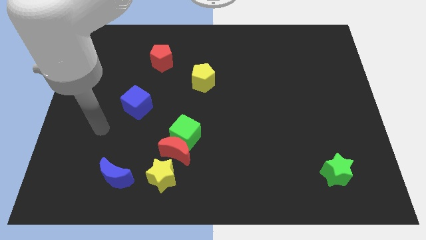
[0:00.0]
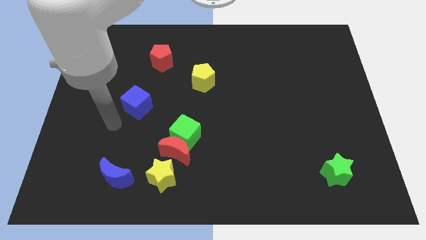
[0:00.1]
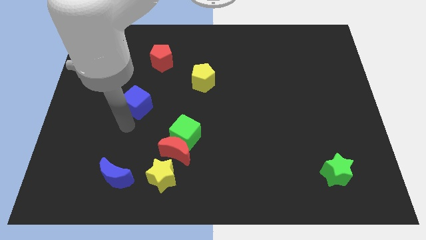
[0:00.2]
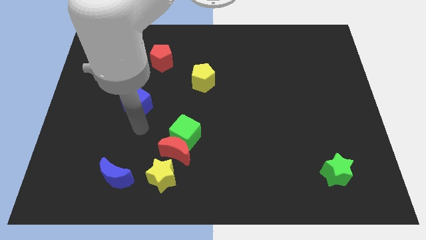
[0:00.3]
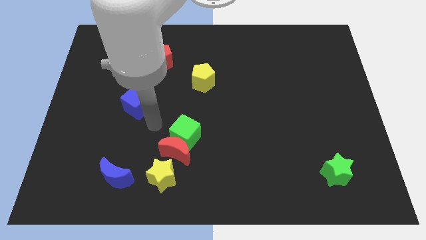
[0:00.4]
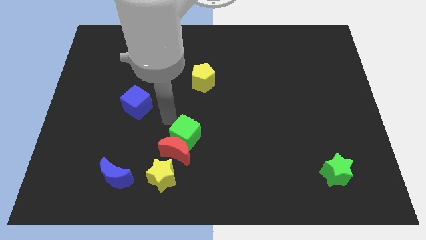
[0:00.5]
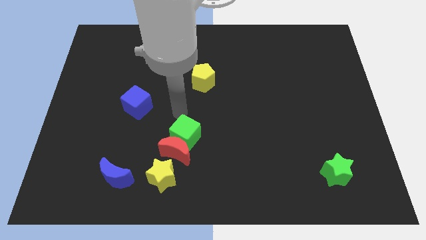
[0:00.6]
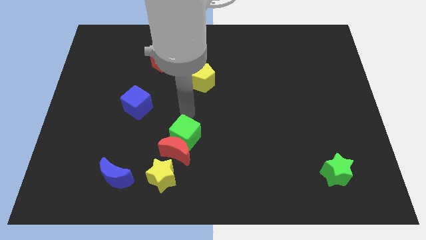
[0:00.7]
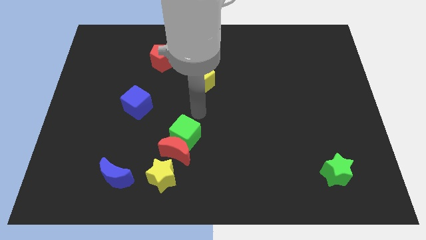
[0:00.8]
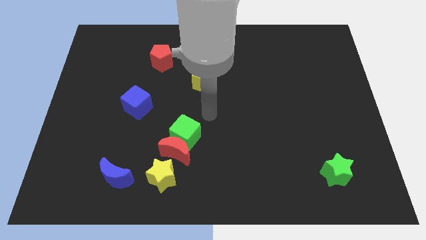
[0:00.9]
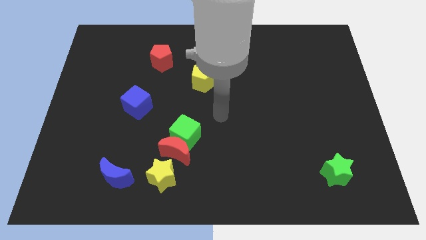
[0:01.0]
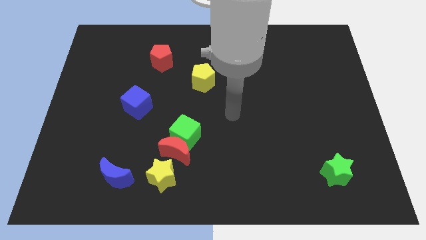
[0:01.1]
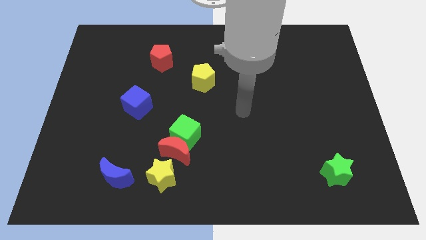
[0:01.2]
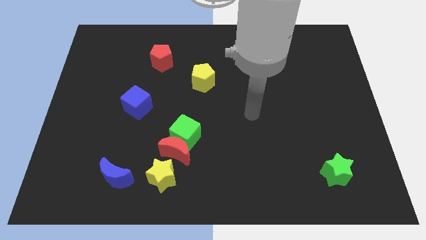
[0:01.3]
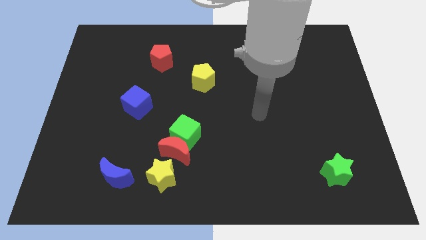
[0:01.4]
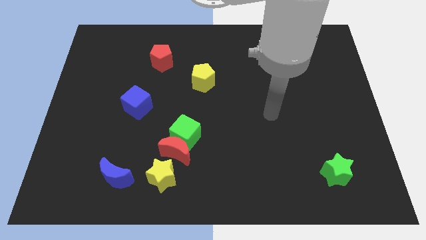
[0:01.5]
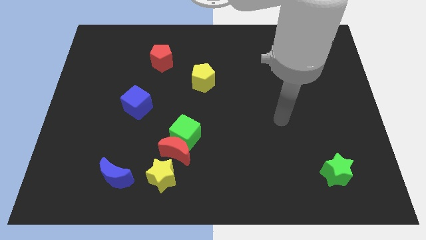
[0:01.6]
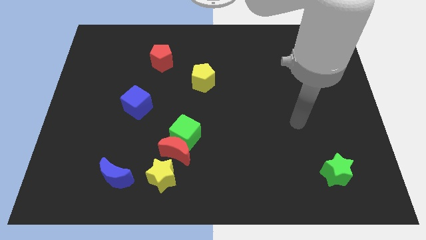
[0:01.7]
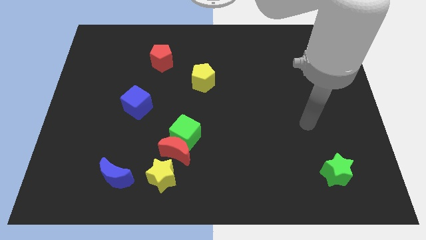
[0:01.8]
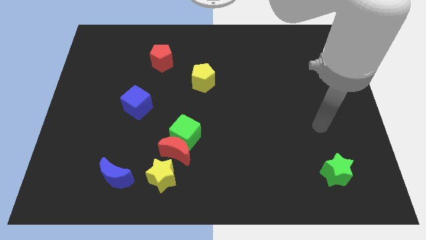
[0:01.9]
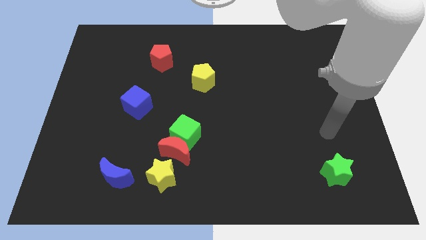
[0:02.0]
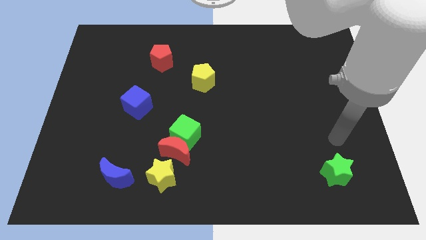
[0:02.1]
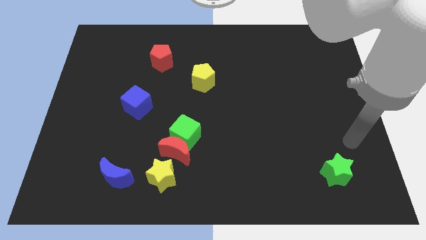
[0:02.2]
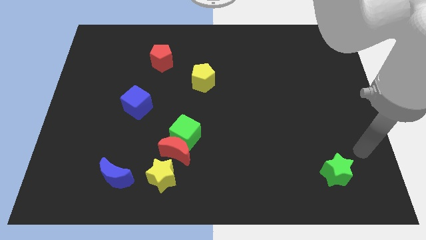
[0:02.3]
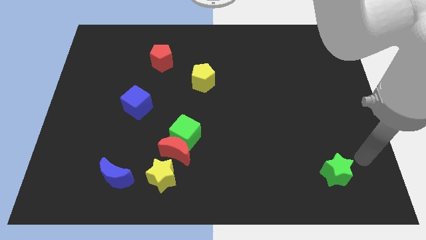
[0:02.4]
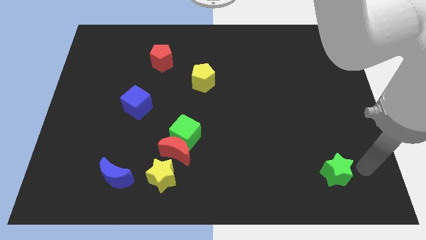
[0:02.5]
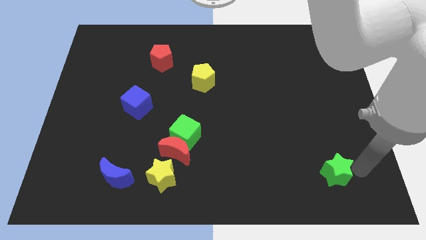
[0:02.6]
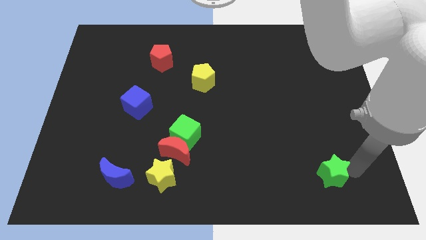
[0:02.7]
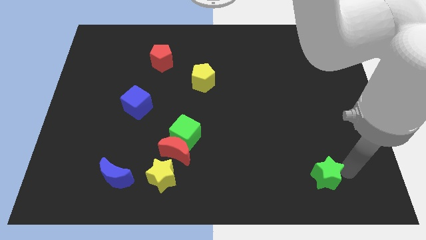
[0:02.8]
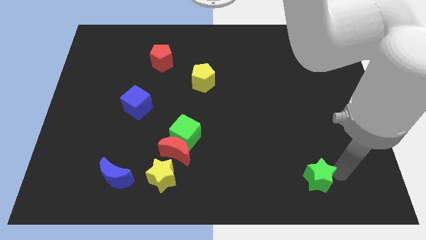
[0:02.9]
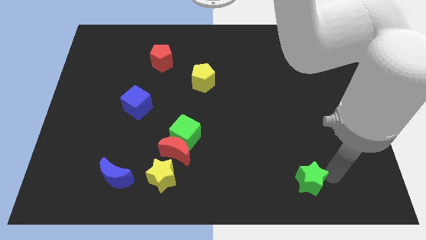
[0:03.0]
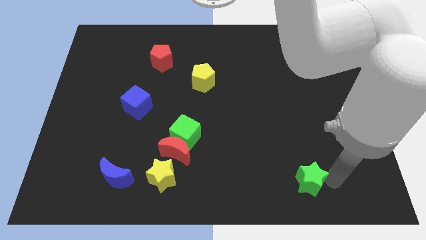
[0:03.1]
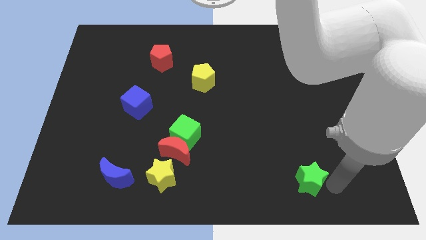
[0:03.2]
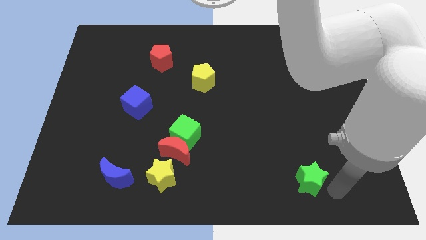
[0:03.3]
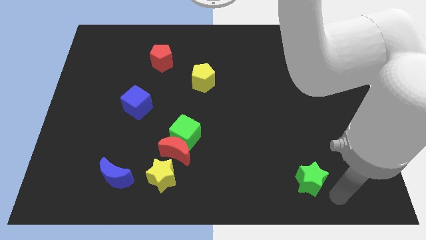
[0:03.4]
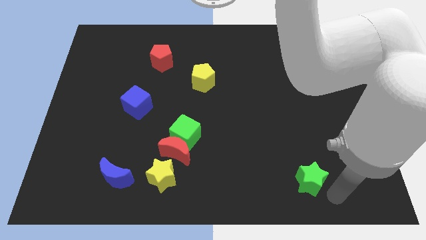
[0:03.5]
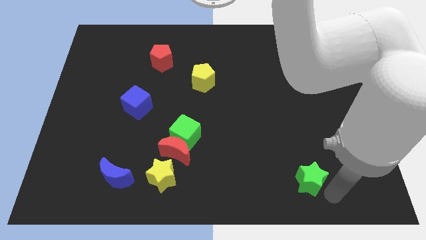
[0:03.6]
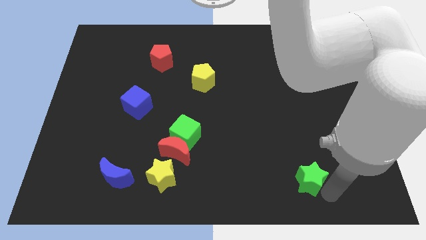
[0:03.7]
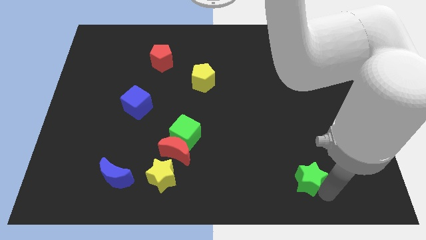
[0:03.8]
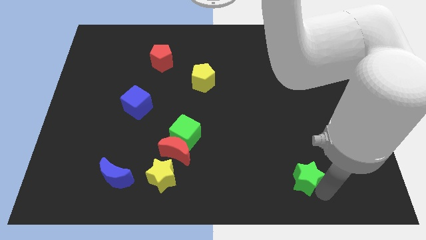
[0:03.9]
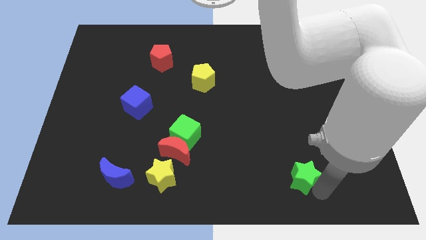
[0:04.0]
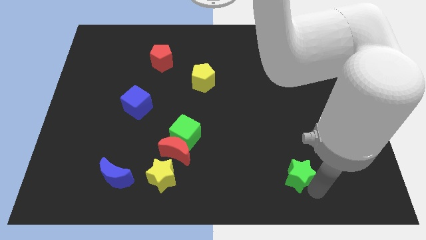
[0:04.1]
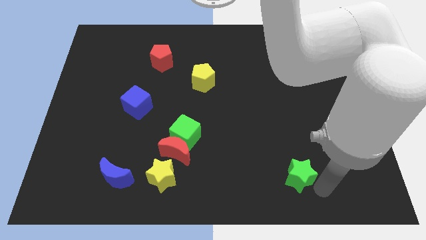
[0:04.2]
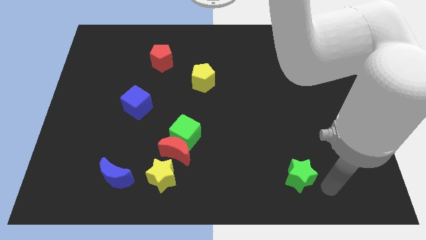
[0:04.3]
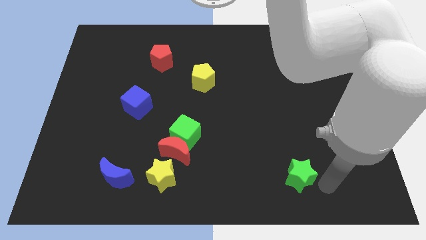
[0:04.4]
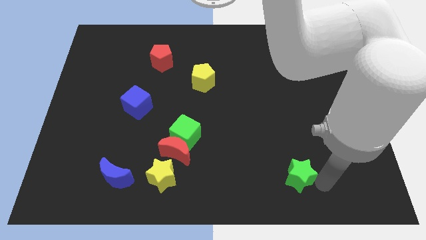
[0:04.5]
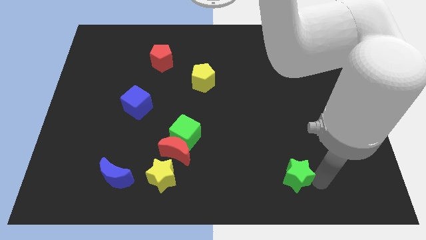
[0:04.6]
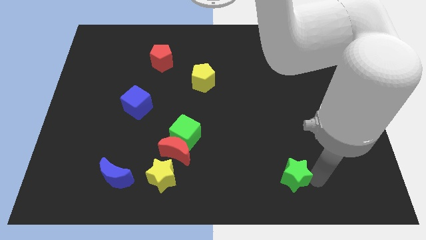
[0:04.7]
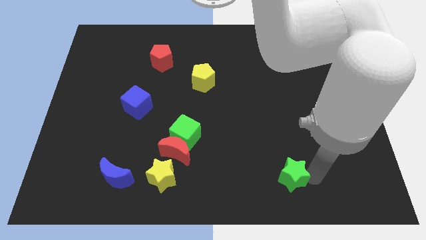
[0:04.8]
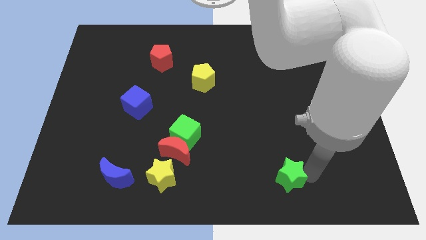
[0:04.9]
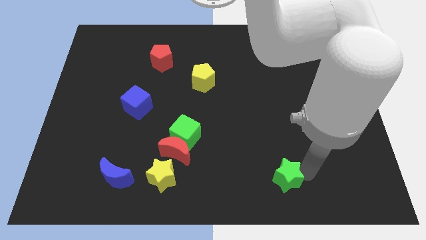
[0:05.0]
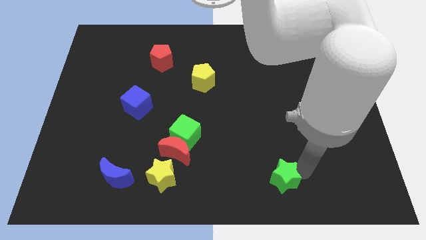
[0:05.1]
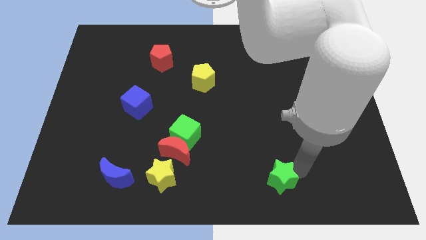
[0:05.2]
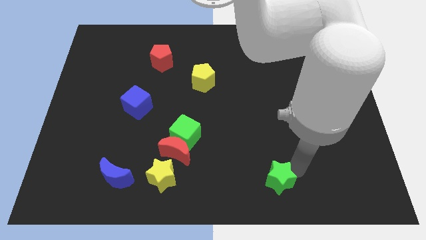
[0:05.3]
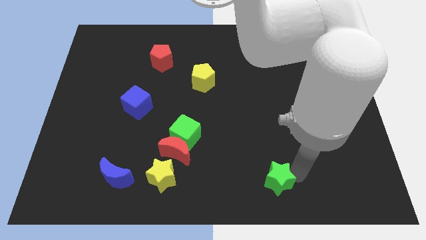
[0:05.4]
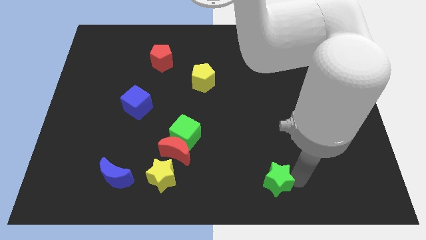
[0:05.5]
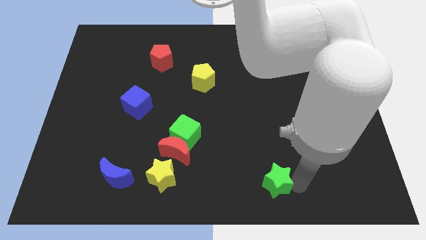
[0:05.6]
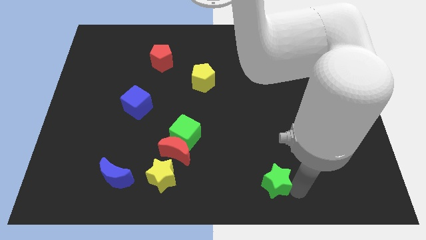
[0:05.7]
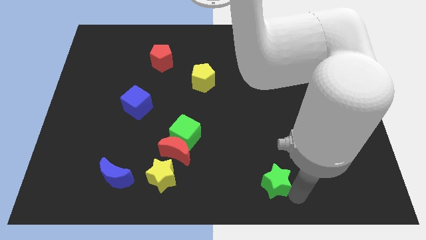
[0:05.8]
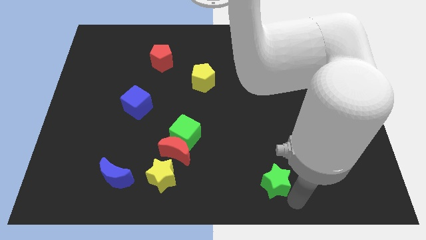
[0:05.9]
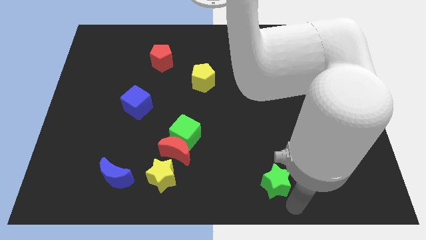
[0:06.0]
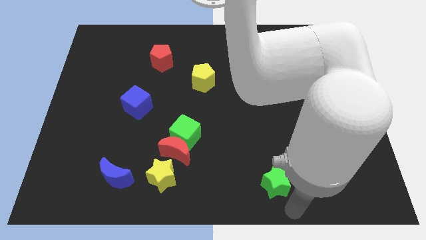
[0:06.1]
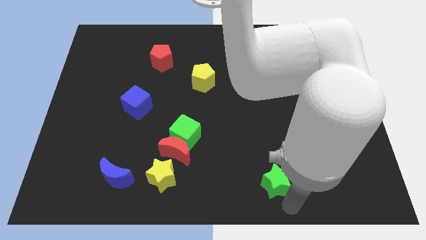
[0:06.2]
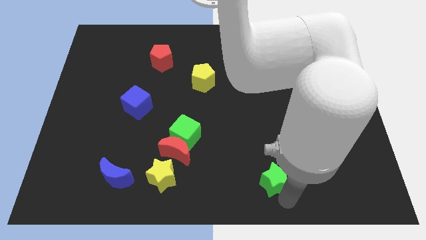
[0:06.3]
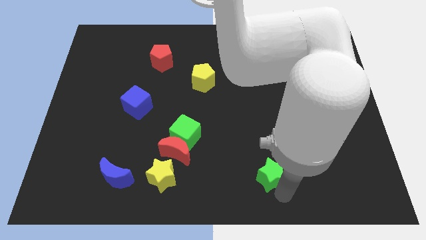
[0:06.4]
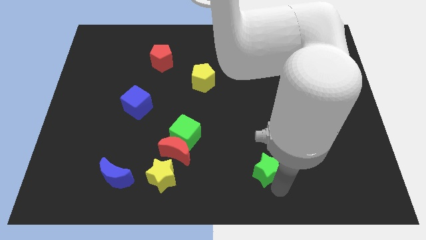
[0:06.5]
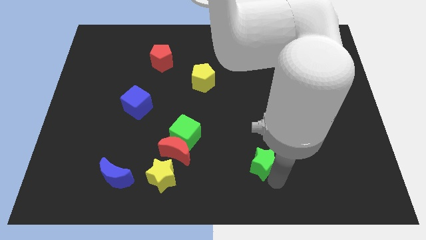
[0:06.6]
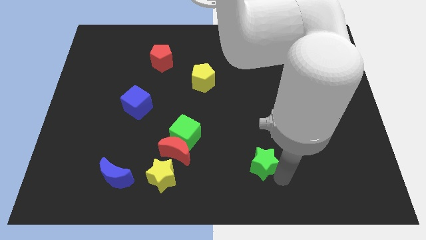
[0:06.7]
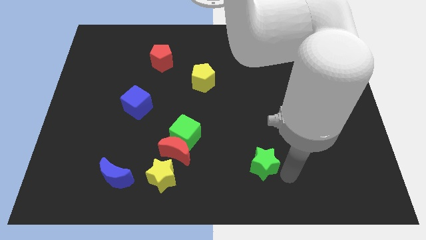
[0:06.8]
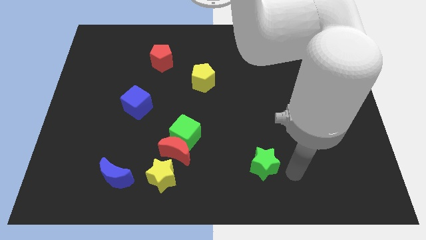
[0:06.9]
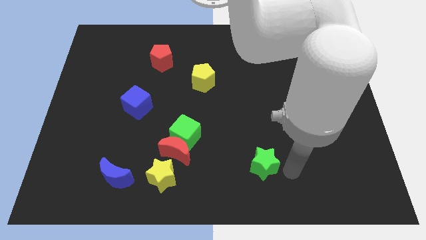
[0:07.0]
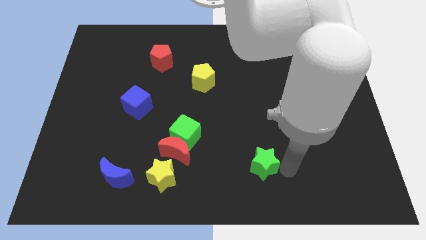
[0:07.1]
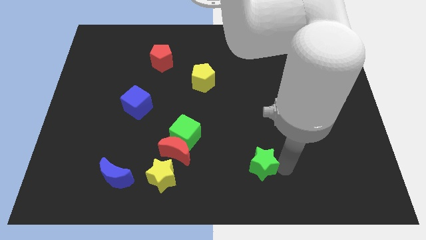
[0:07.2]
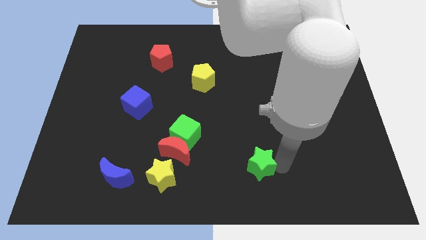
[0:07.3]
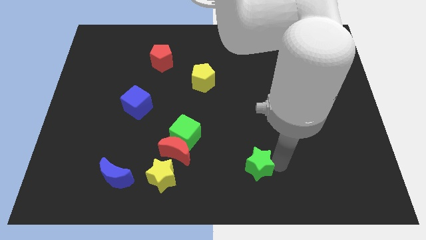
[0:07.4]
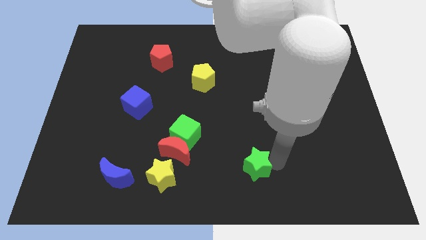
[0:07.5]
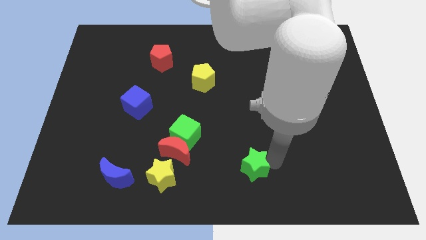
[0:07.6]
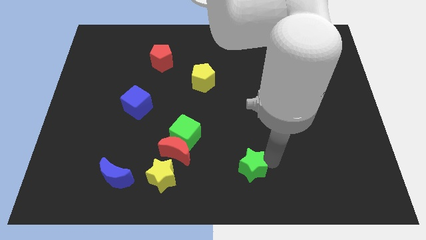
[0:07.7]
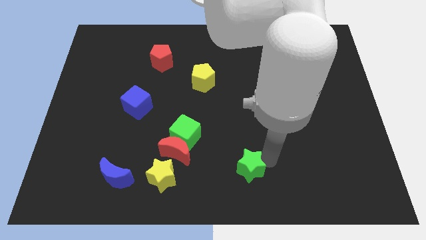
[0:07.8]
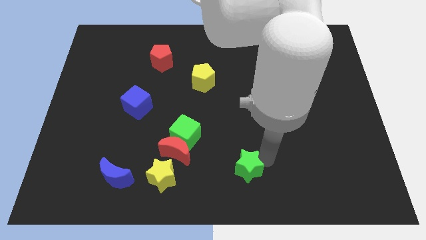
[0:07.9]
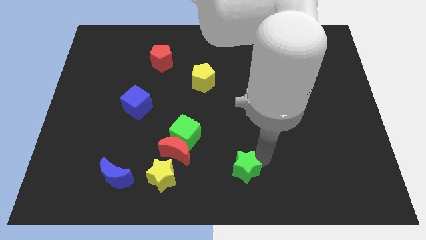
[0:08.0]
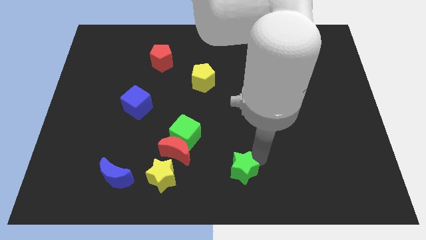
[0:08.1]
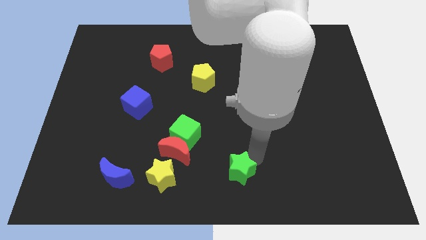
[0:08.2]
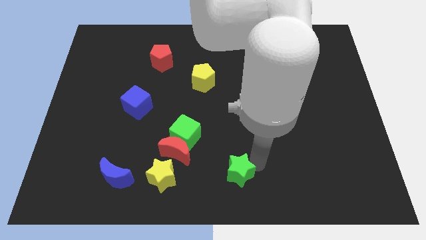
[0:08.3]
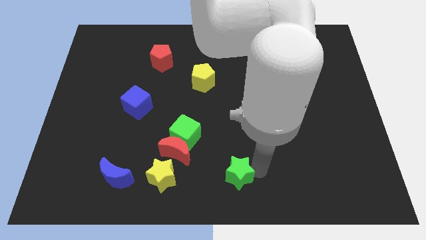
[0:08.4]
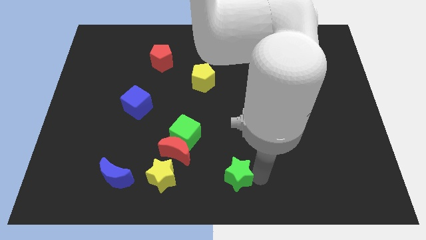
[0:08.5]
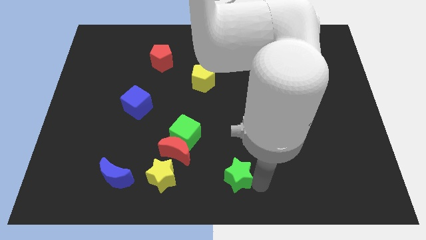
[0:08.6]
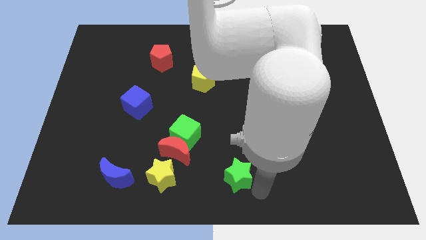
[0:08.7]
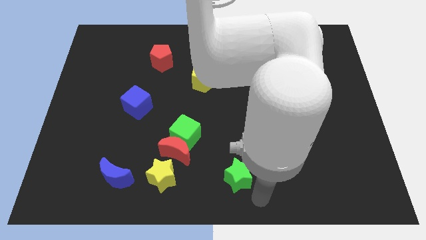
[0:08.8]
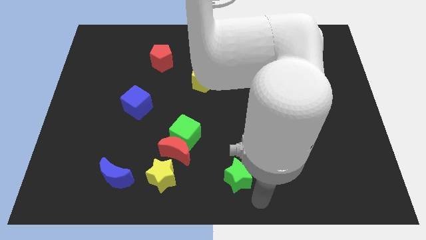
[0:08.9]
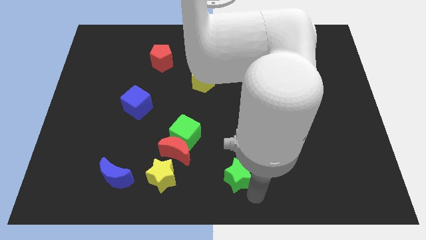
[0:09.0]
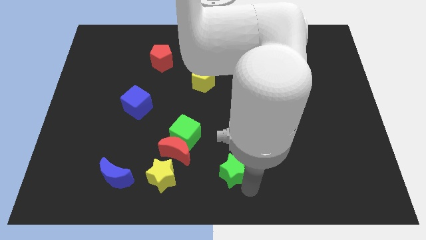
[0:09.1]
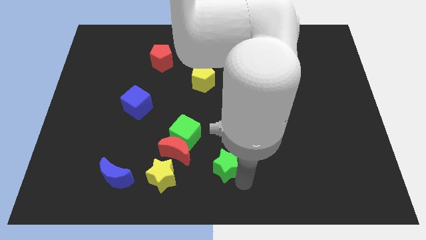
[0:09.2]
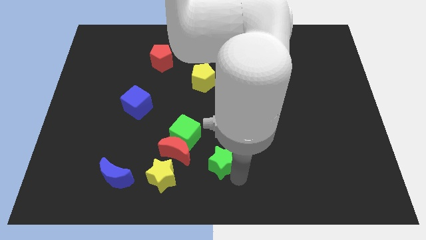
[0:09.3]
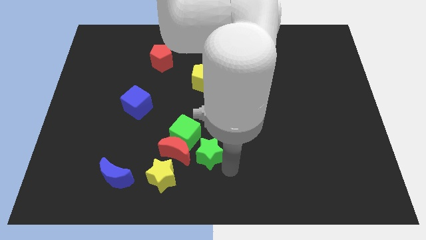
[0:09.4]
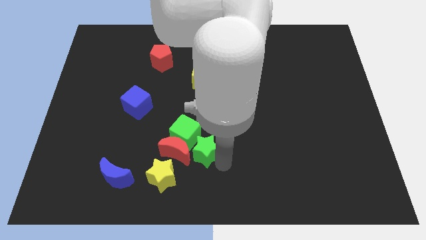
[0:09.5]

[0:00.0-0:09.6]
push the green star to the green cube
